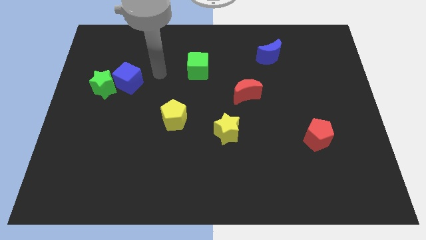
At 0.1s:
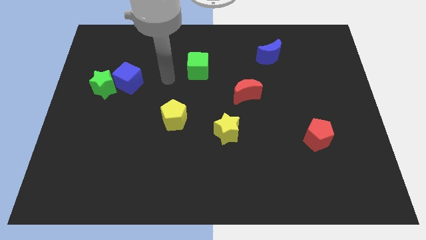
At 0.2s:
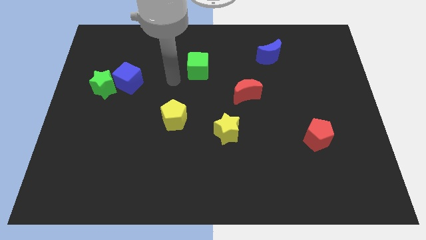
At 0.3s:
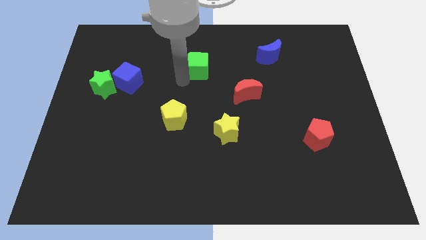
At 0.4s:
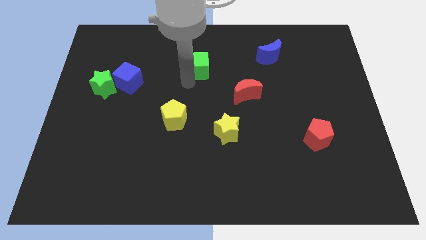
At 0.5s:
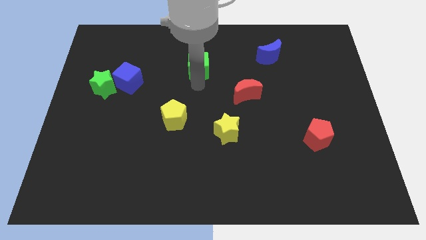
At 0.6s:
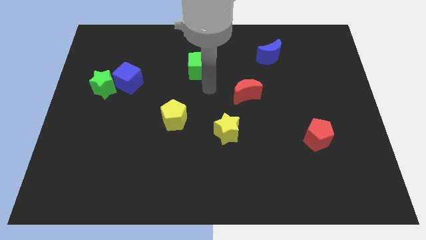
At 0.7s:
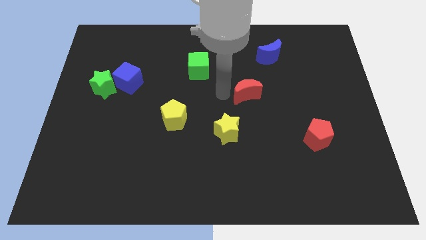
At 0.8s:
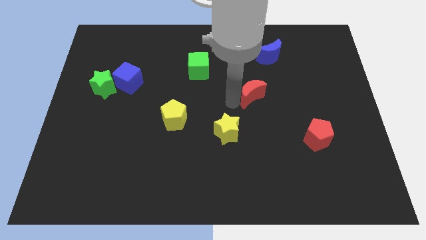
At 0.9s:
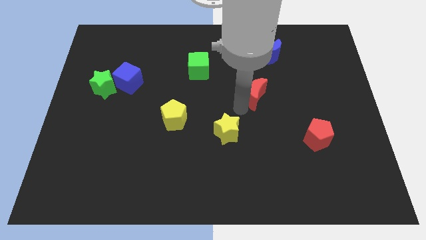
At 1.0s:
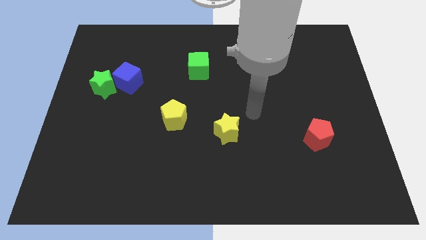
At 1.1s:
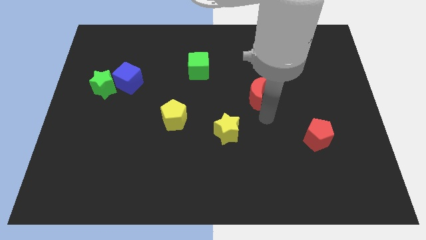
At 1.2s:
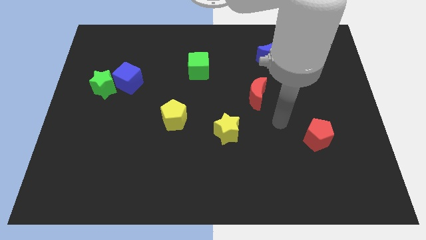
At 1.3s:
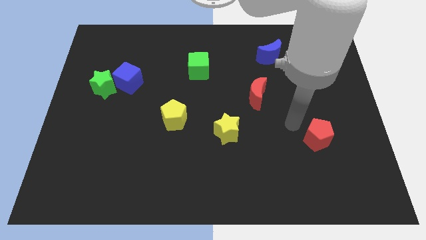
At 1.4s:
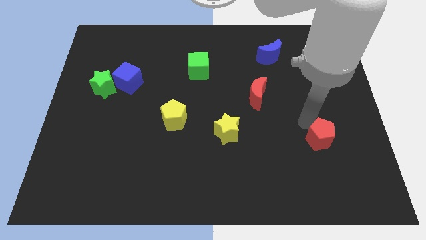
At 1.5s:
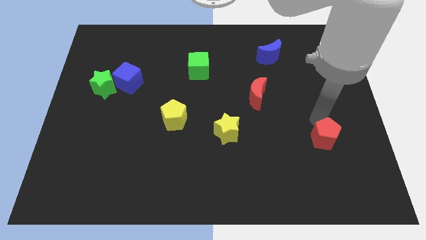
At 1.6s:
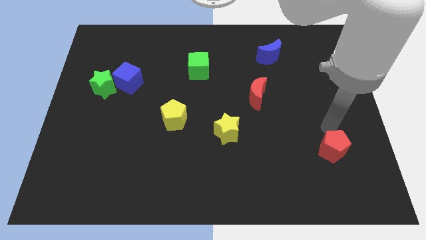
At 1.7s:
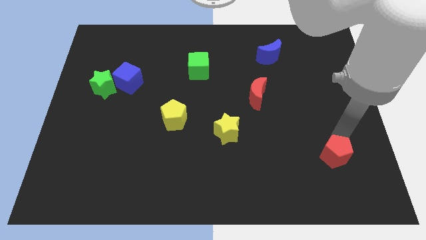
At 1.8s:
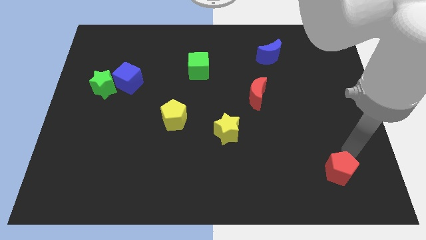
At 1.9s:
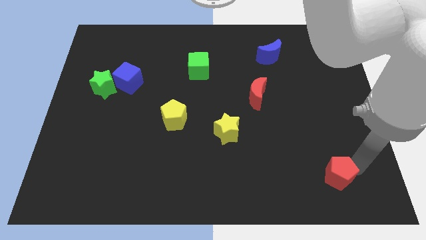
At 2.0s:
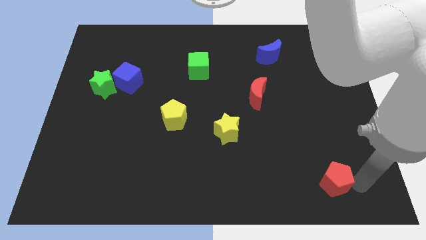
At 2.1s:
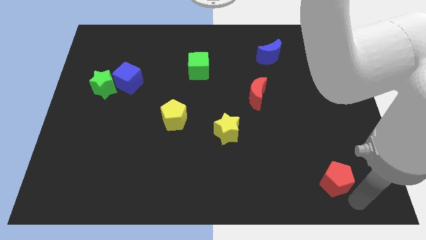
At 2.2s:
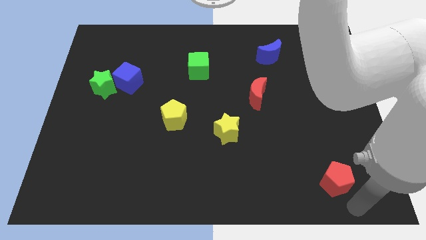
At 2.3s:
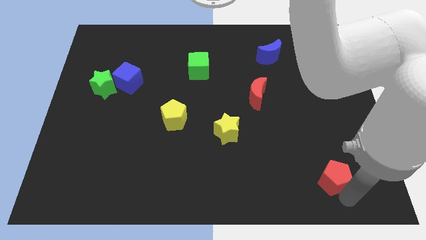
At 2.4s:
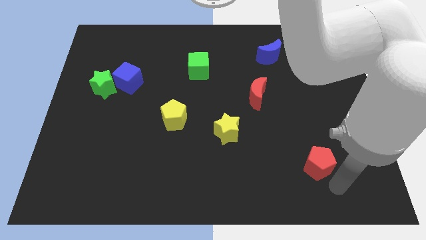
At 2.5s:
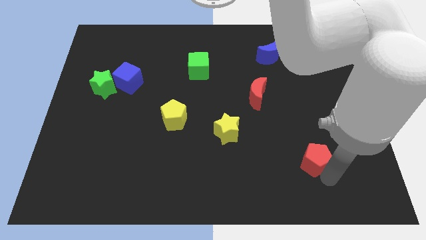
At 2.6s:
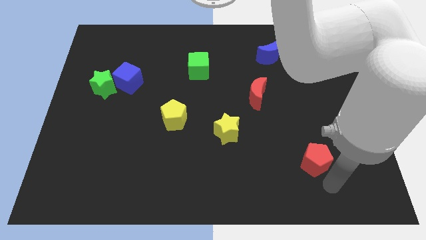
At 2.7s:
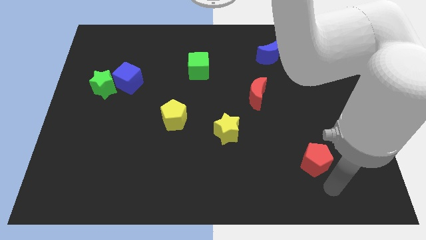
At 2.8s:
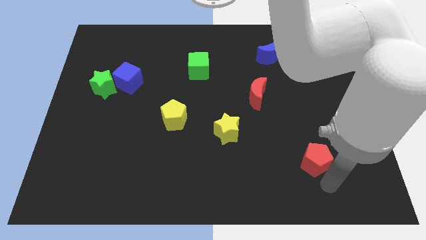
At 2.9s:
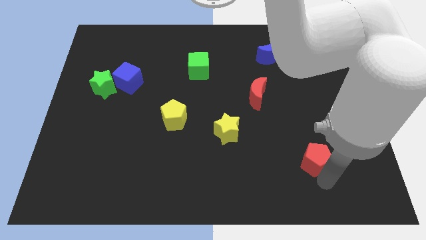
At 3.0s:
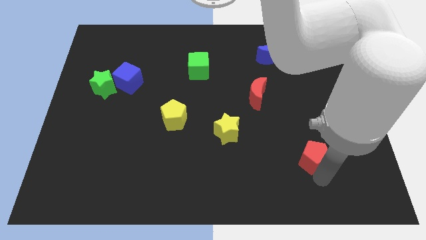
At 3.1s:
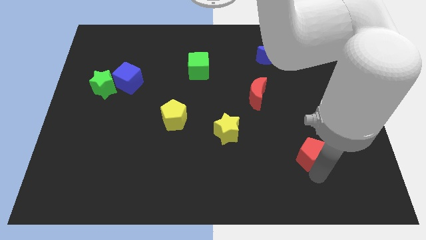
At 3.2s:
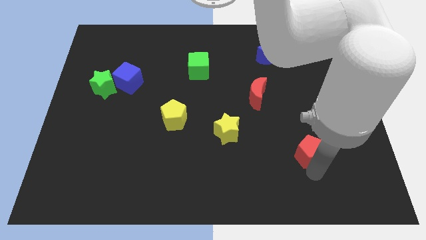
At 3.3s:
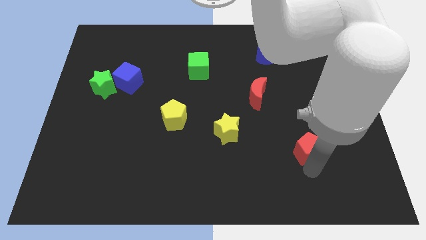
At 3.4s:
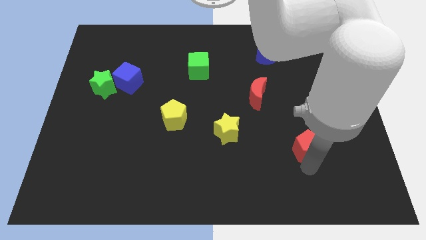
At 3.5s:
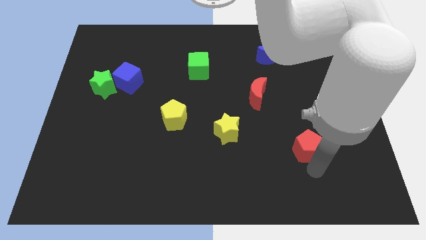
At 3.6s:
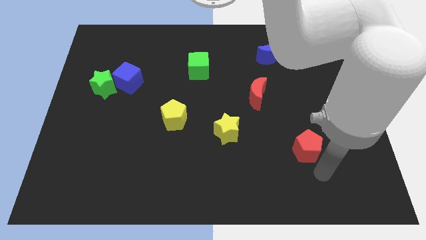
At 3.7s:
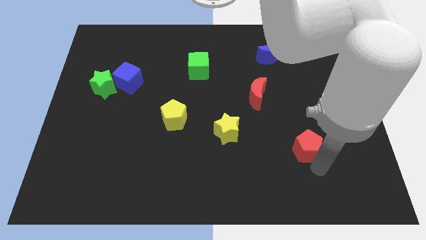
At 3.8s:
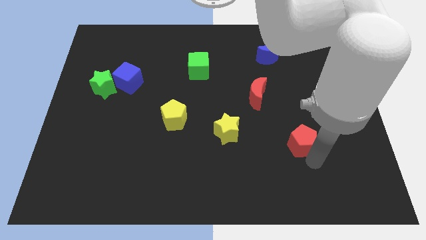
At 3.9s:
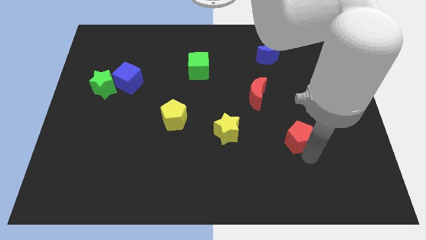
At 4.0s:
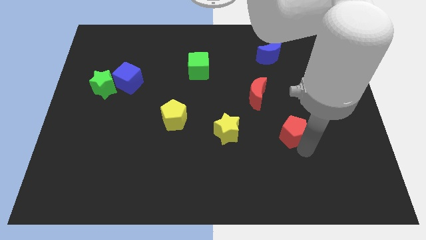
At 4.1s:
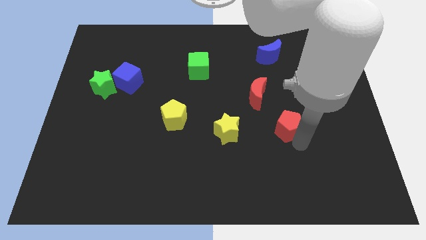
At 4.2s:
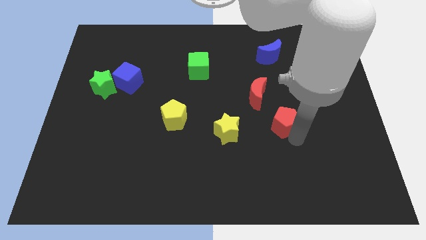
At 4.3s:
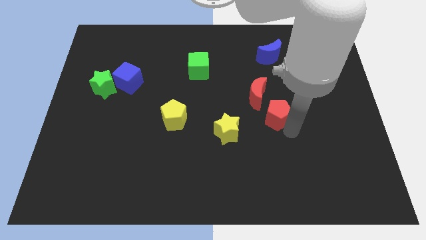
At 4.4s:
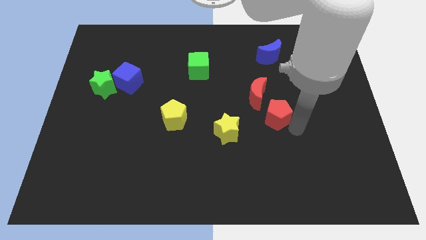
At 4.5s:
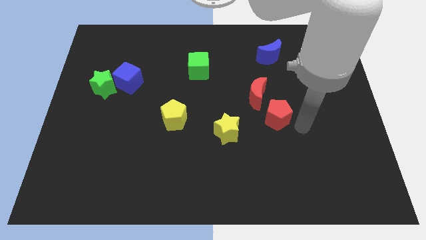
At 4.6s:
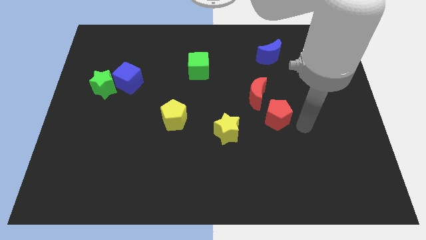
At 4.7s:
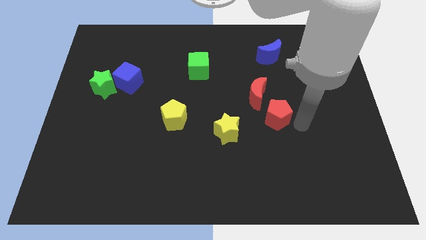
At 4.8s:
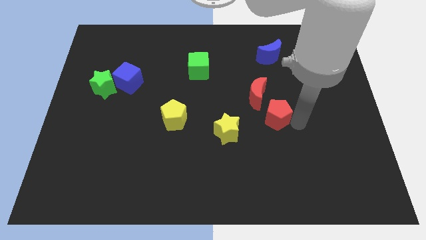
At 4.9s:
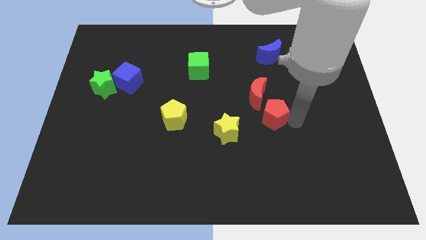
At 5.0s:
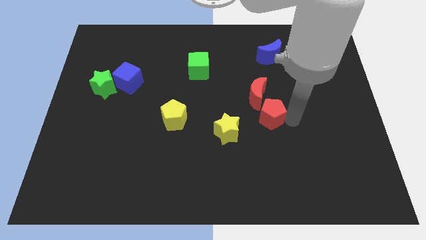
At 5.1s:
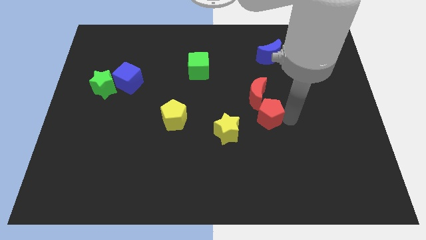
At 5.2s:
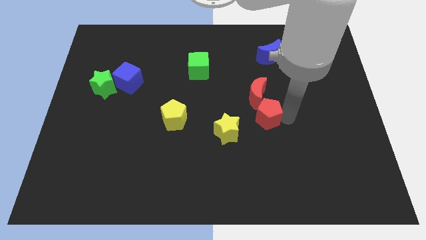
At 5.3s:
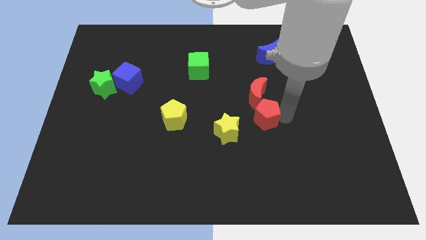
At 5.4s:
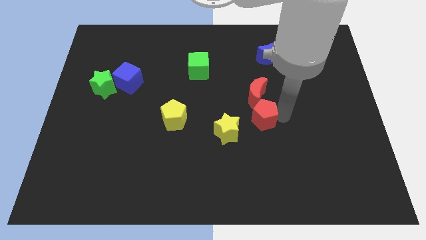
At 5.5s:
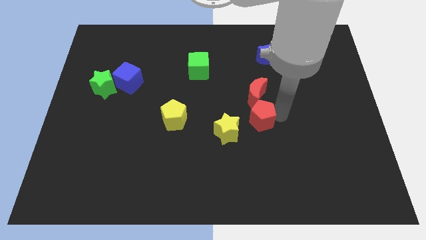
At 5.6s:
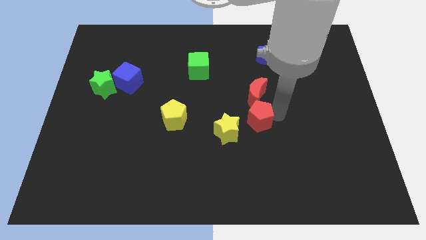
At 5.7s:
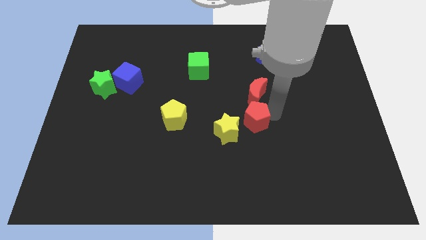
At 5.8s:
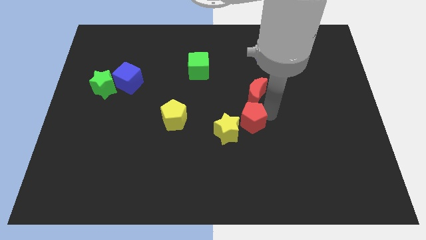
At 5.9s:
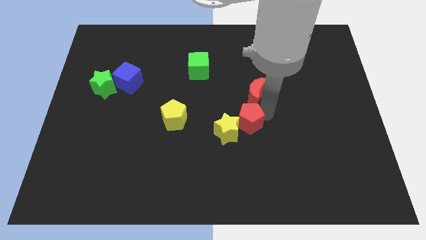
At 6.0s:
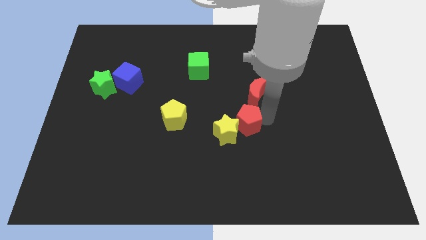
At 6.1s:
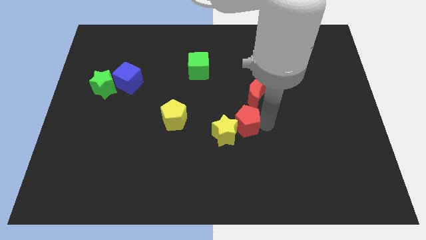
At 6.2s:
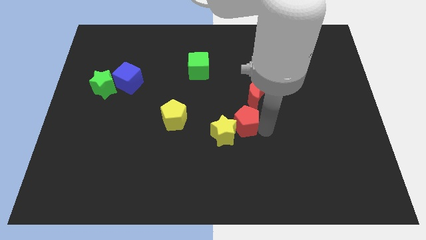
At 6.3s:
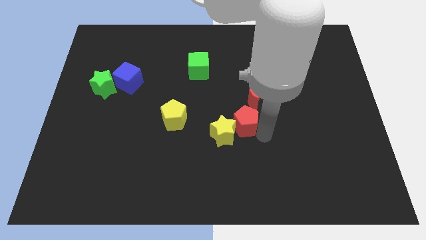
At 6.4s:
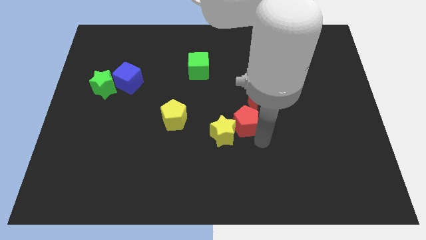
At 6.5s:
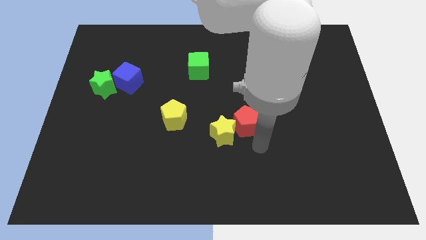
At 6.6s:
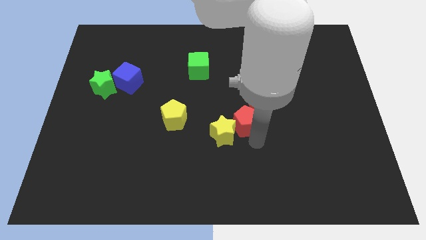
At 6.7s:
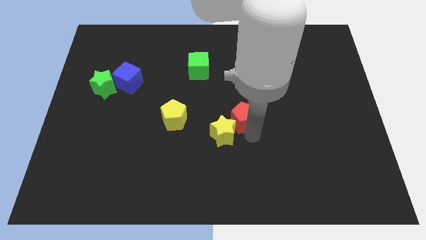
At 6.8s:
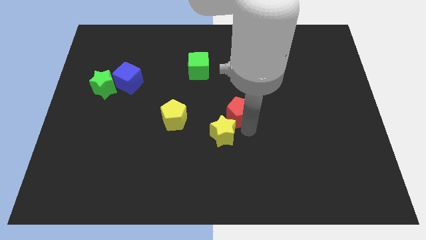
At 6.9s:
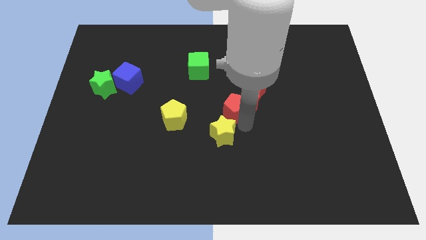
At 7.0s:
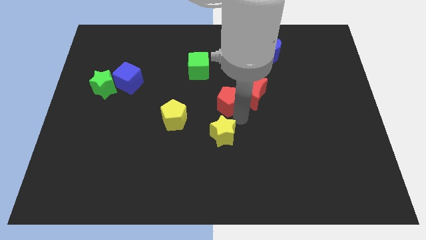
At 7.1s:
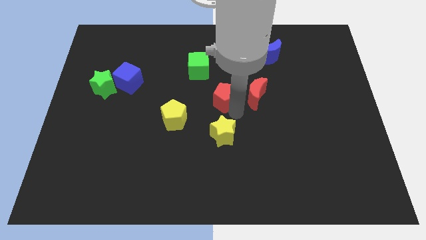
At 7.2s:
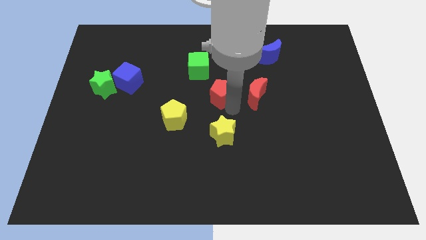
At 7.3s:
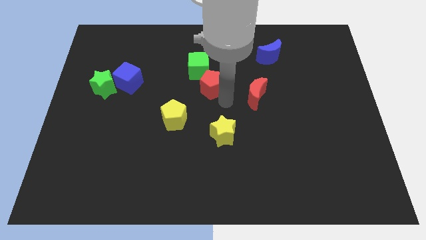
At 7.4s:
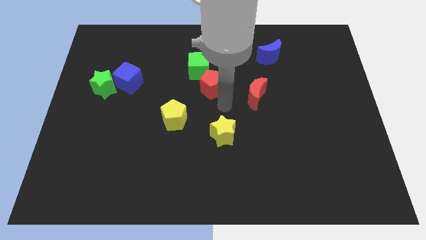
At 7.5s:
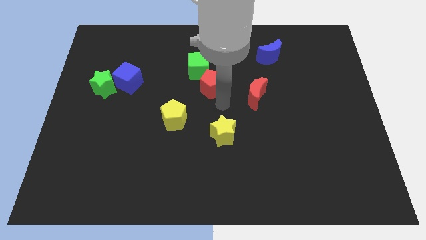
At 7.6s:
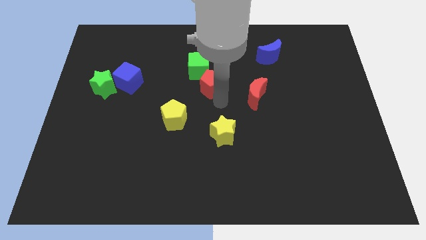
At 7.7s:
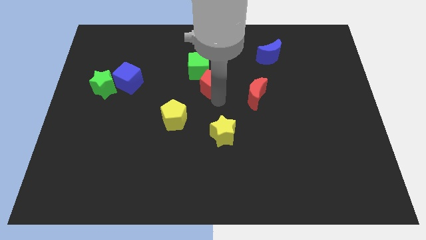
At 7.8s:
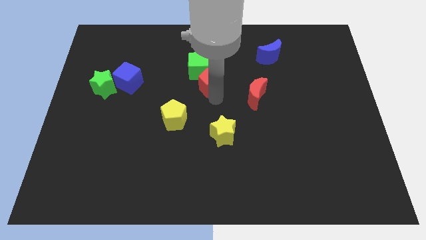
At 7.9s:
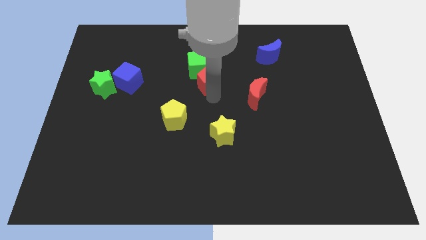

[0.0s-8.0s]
move the red pentagon to the green cube
